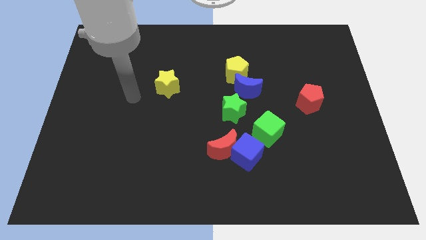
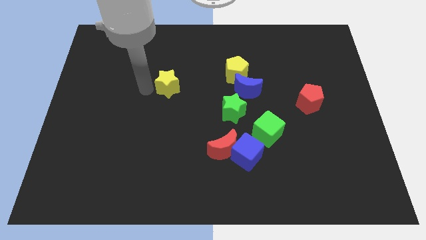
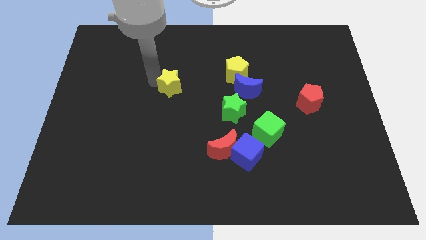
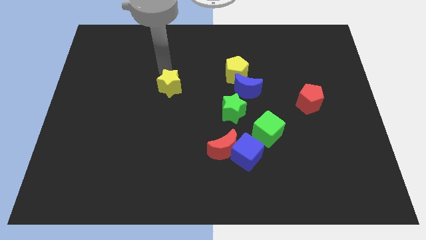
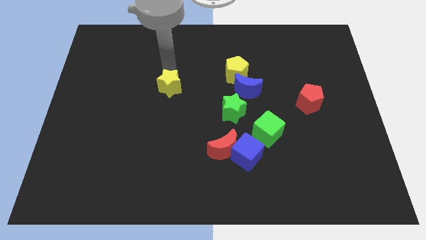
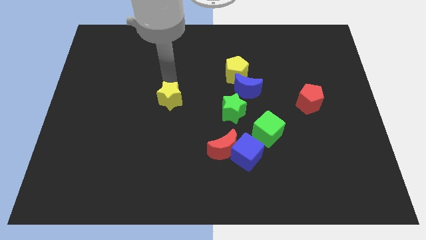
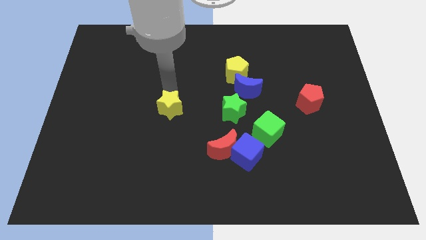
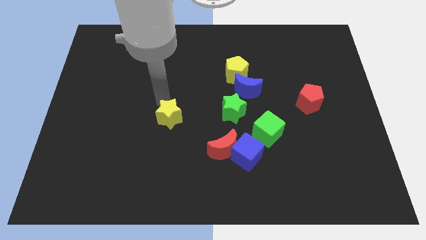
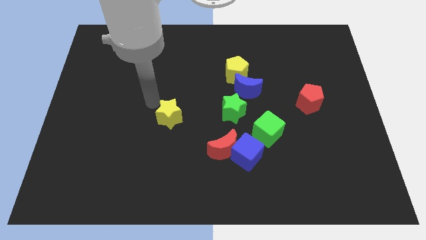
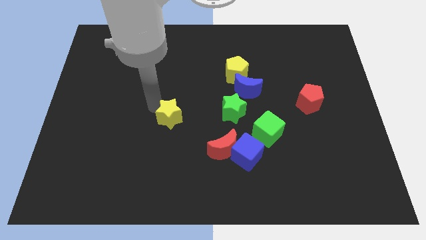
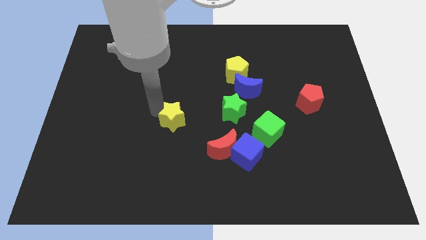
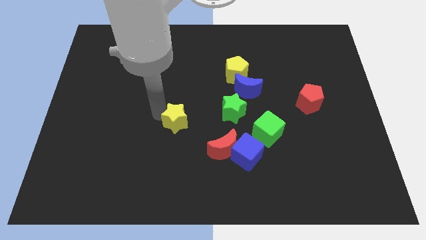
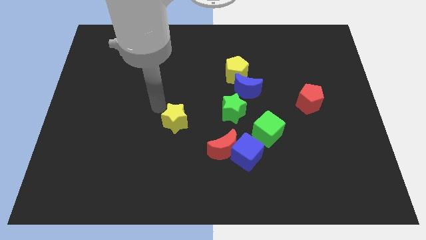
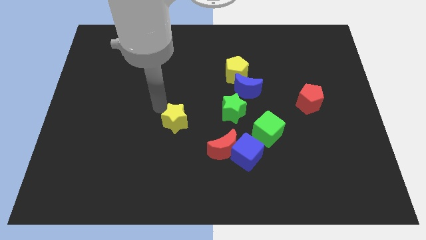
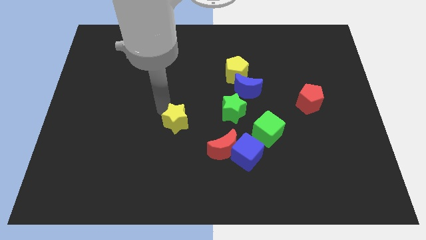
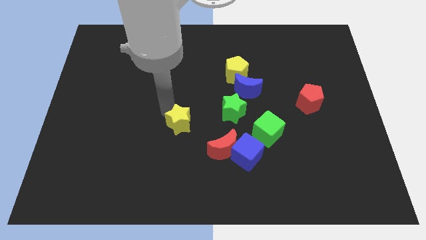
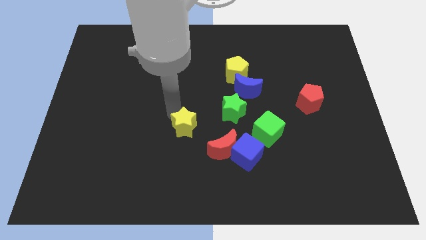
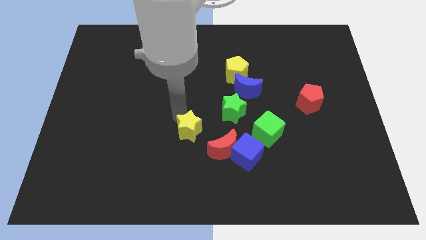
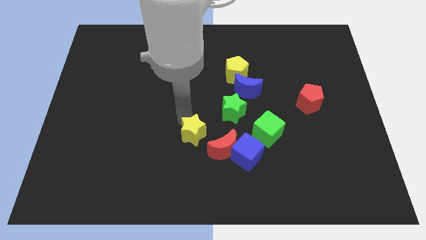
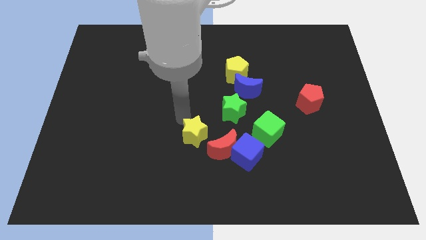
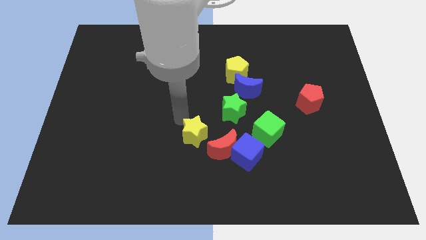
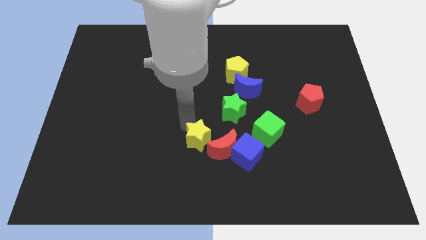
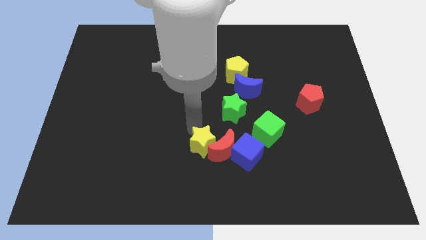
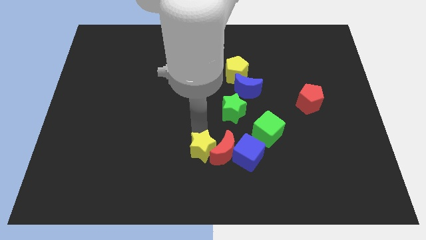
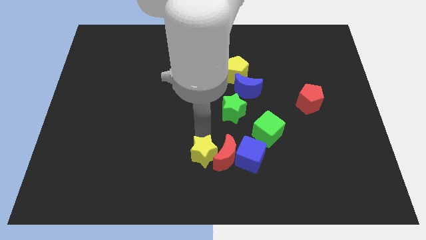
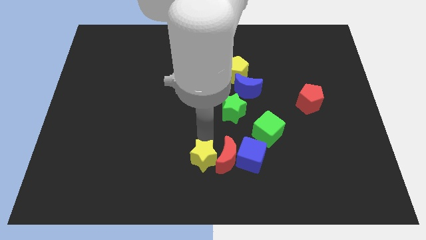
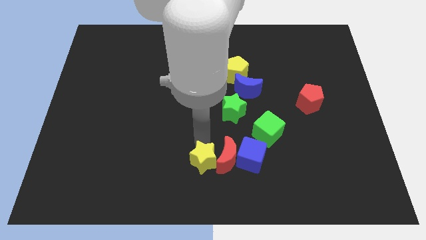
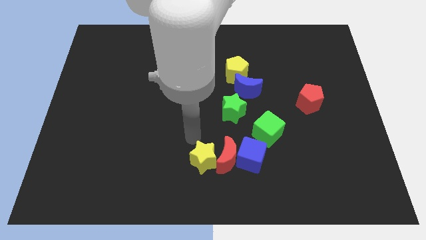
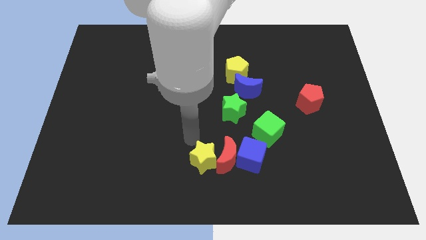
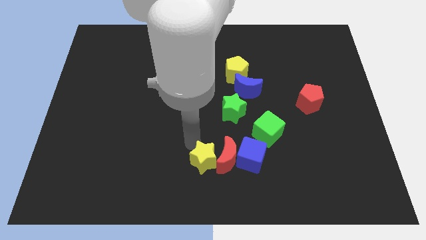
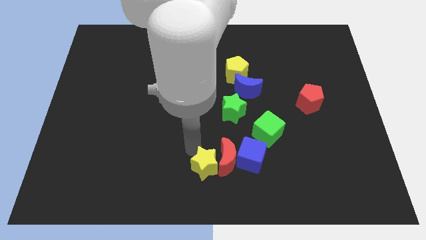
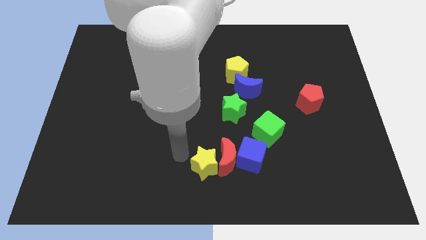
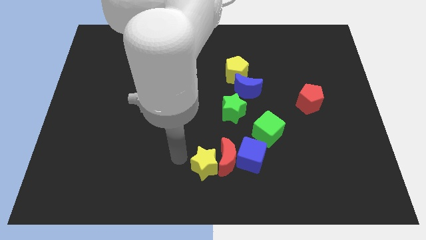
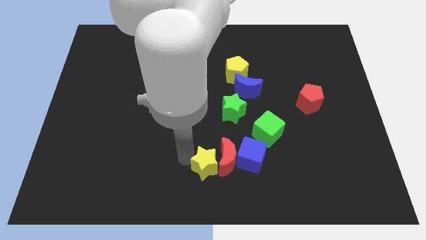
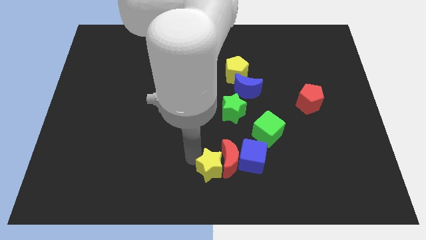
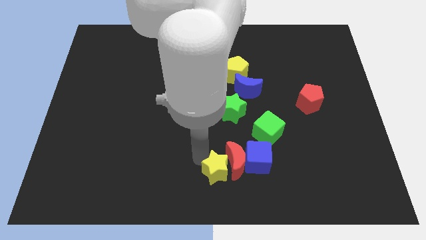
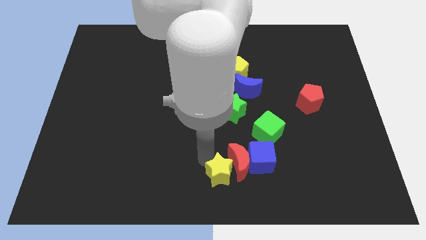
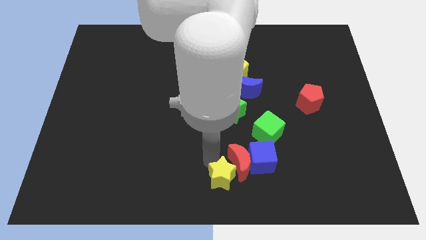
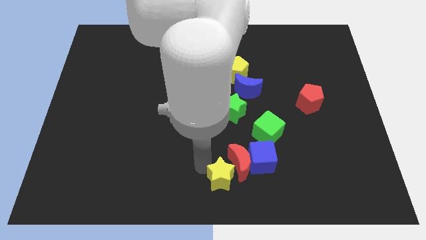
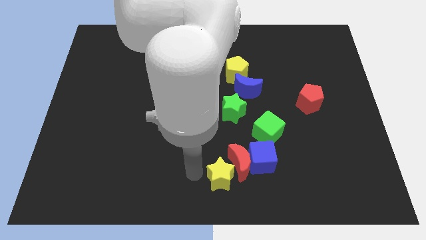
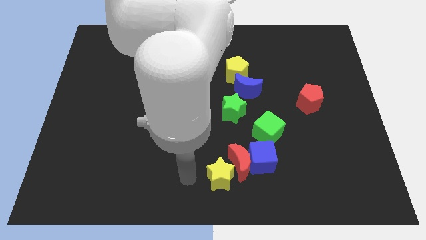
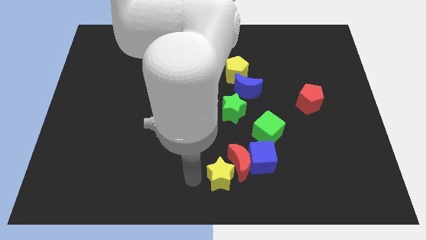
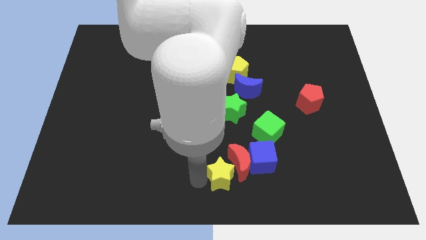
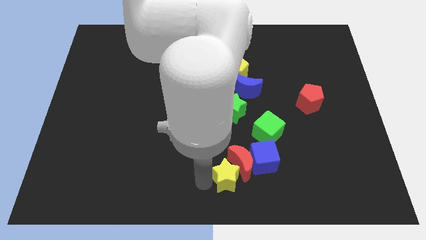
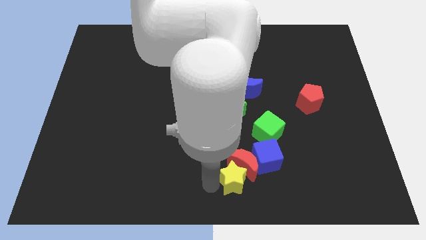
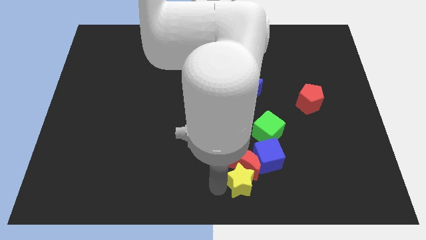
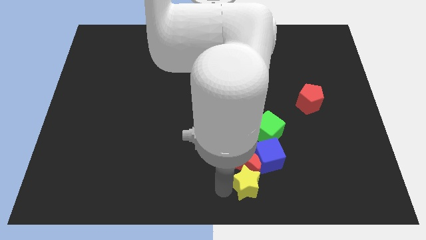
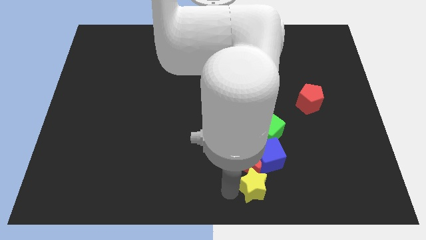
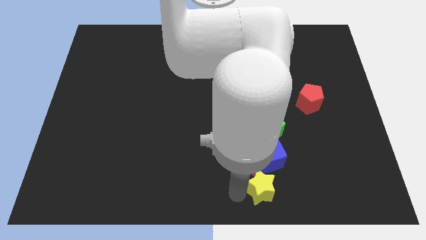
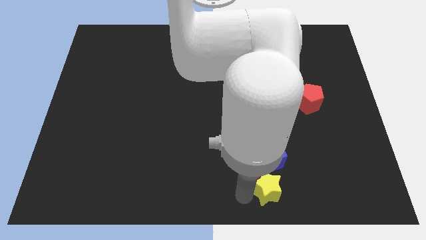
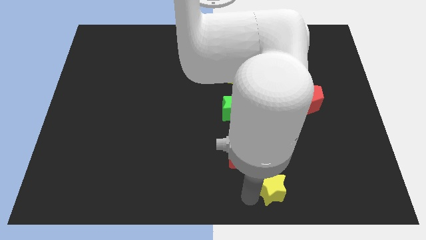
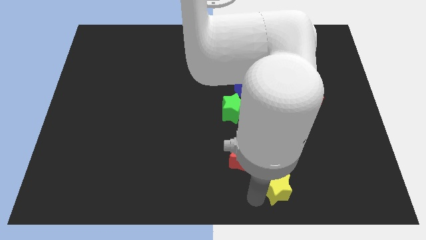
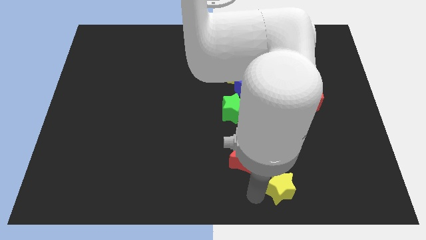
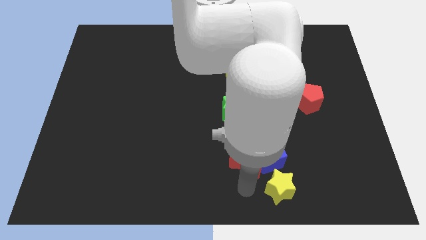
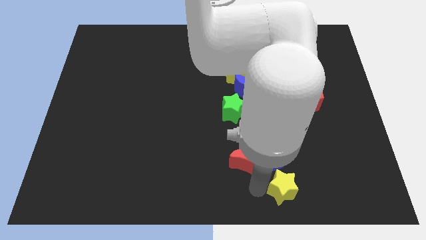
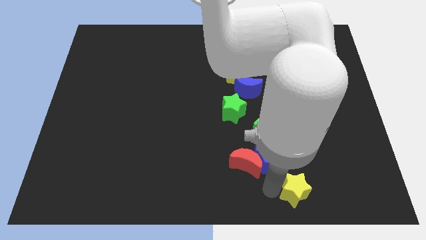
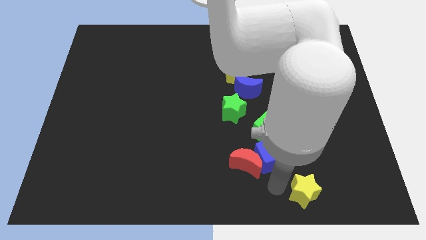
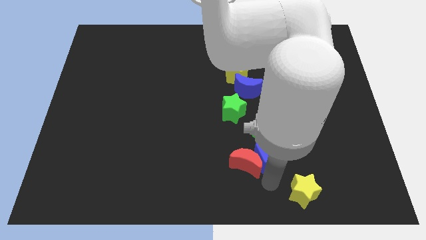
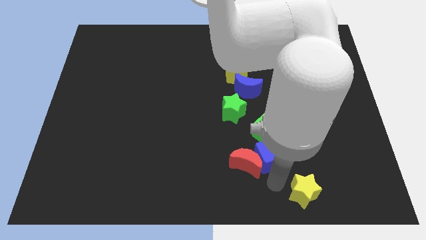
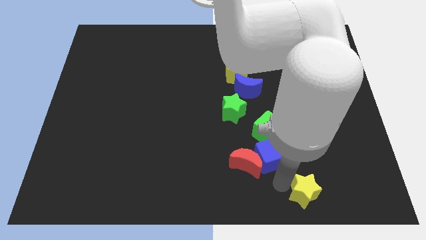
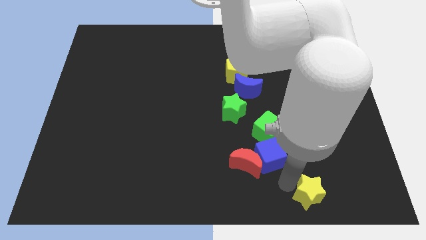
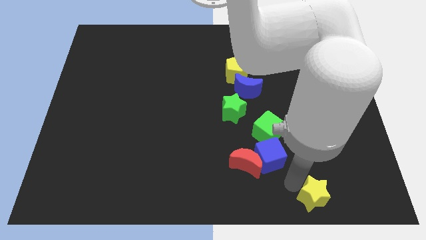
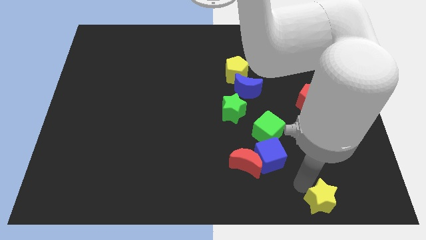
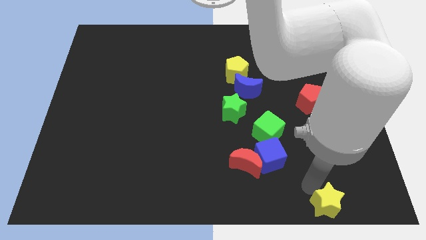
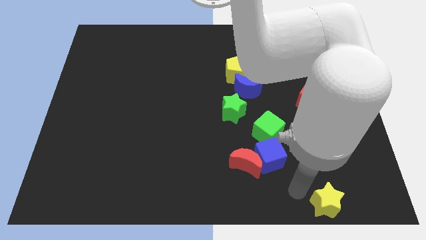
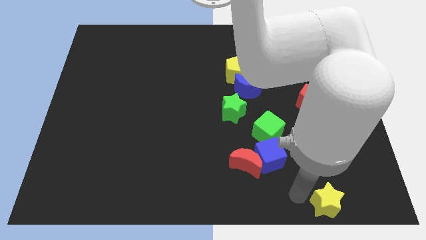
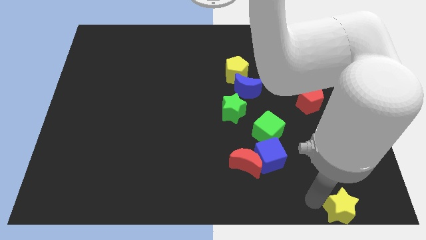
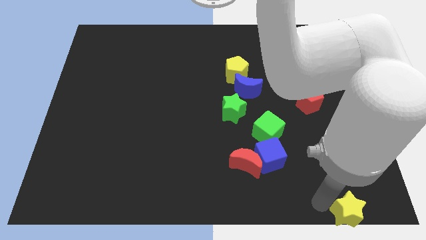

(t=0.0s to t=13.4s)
push the yellow star to the lower right corner
